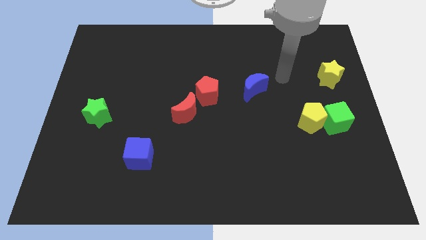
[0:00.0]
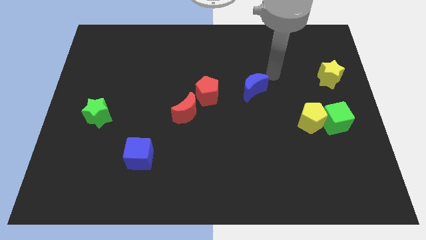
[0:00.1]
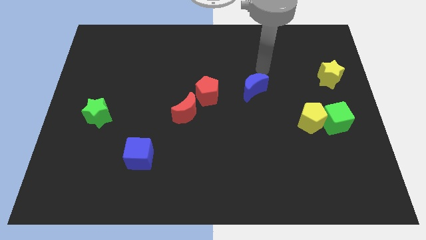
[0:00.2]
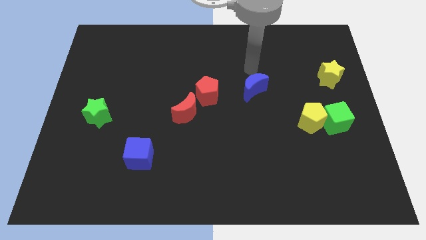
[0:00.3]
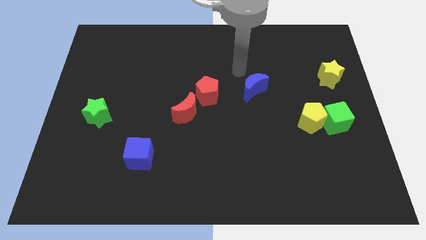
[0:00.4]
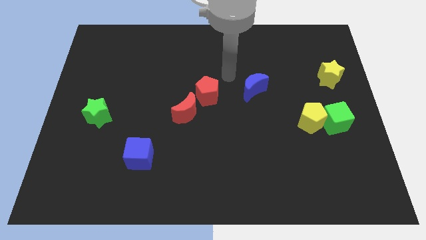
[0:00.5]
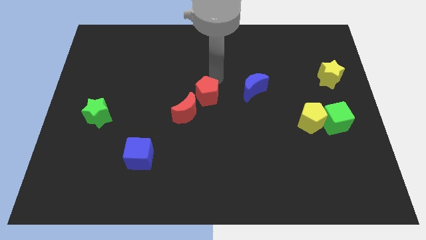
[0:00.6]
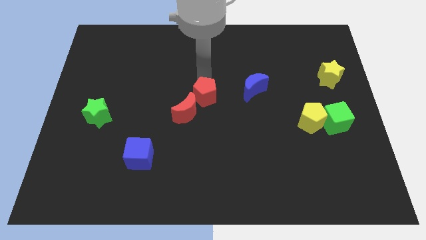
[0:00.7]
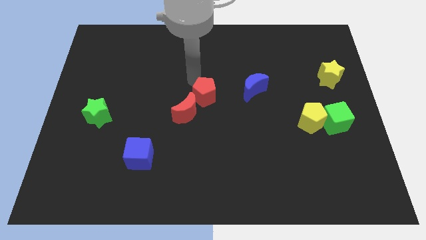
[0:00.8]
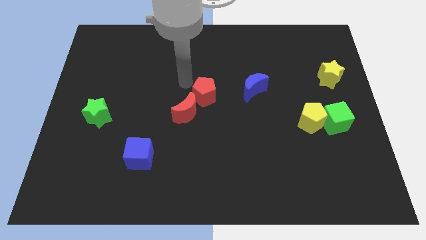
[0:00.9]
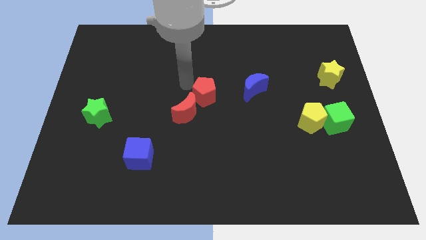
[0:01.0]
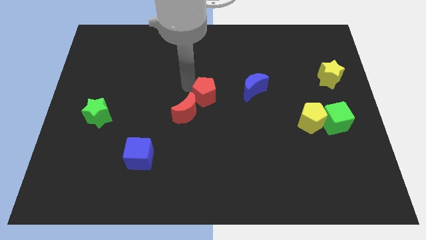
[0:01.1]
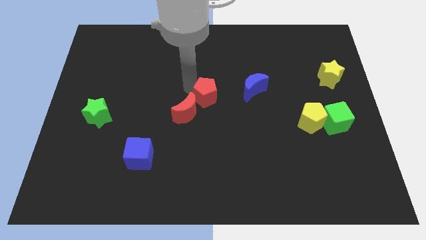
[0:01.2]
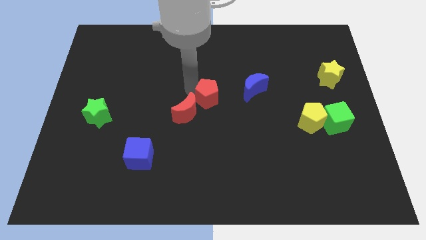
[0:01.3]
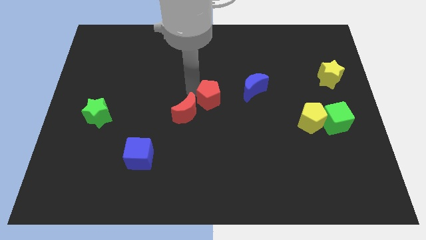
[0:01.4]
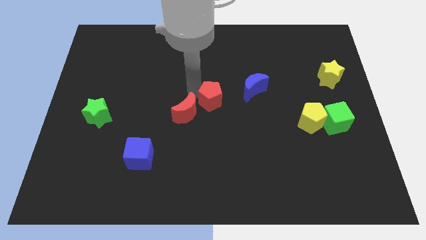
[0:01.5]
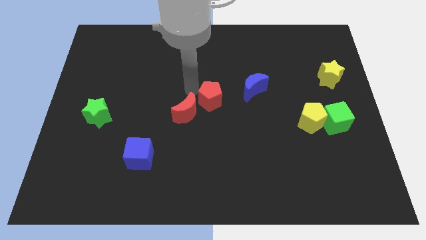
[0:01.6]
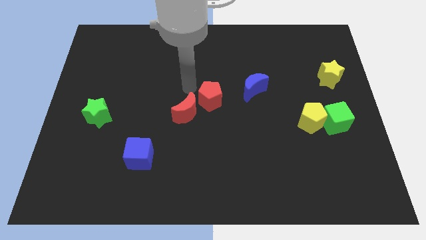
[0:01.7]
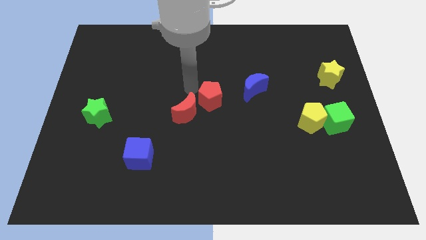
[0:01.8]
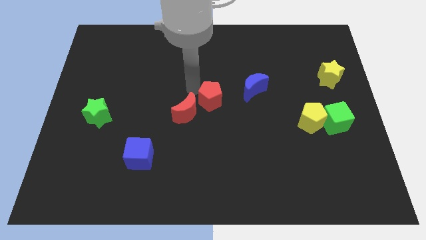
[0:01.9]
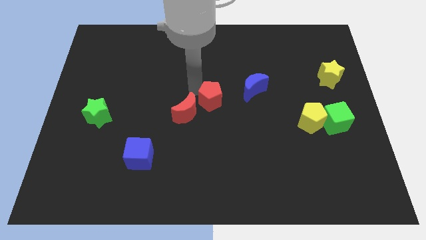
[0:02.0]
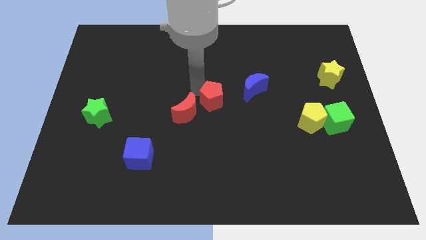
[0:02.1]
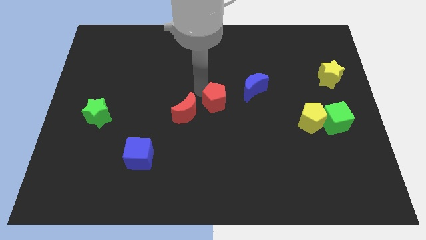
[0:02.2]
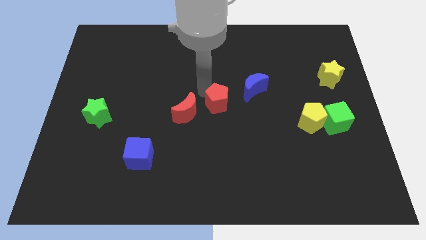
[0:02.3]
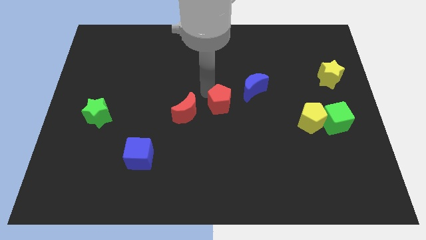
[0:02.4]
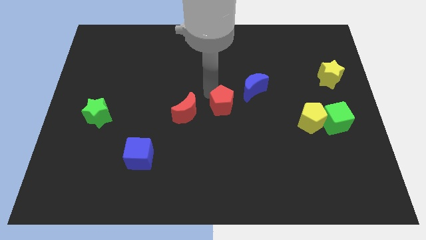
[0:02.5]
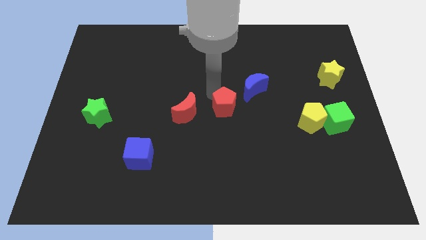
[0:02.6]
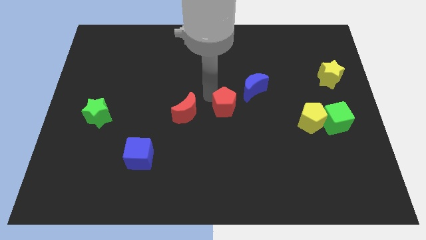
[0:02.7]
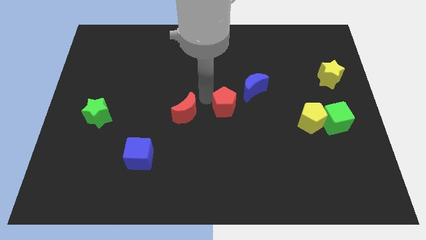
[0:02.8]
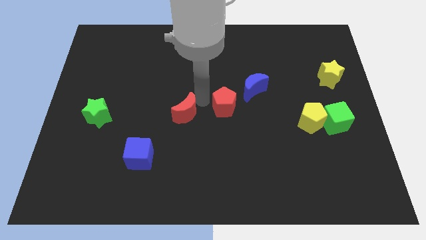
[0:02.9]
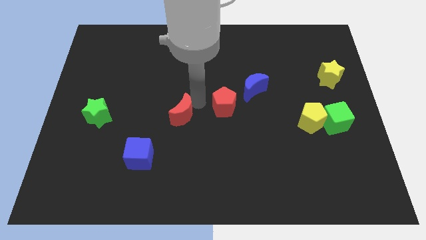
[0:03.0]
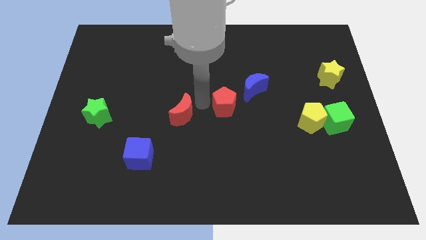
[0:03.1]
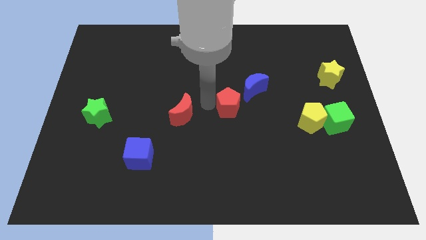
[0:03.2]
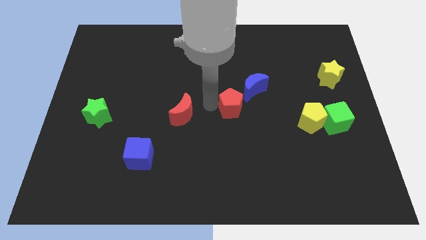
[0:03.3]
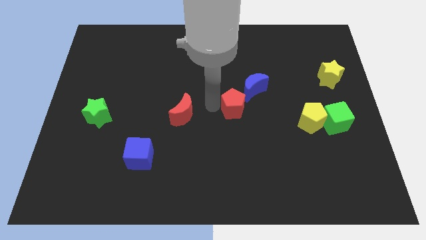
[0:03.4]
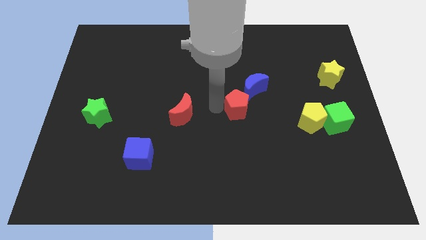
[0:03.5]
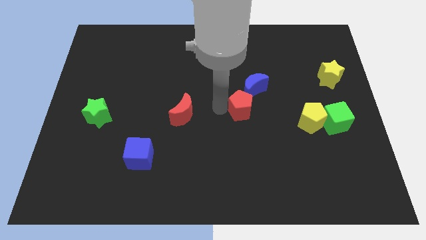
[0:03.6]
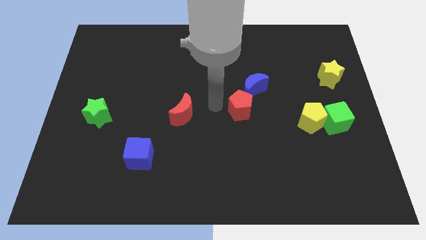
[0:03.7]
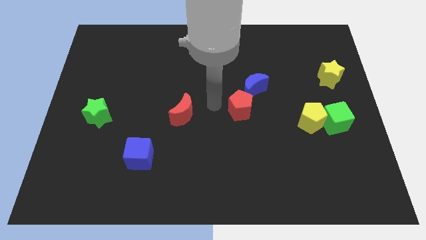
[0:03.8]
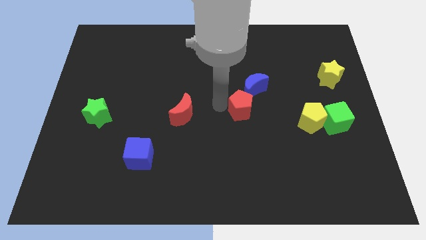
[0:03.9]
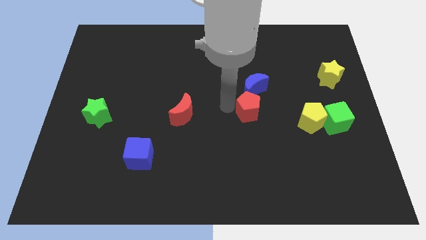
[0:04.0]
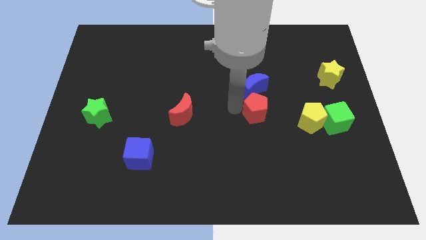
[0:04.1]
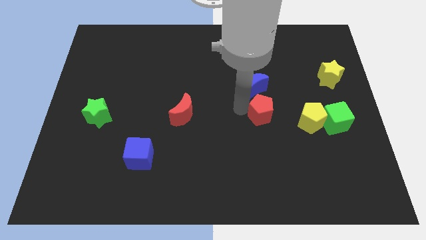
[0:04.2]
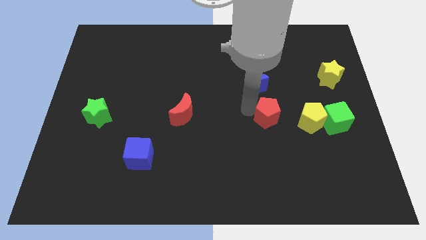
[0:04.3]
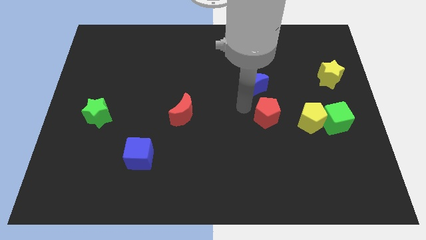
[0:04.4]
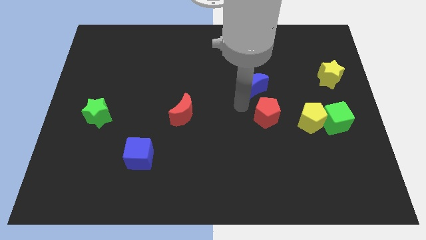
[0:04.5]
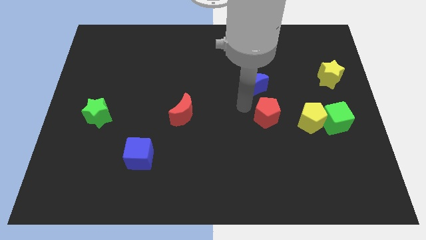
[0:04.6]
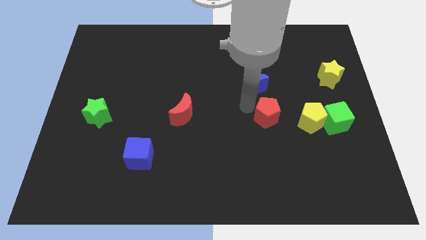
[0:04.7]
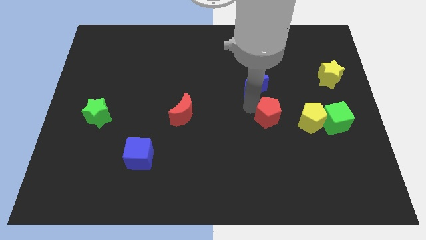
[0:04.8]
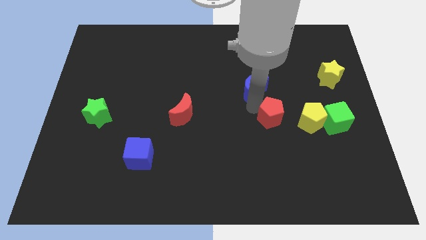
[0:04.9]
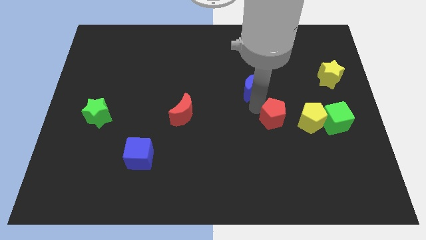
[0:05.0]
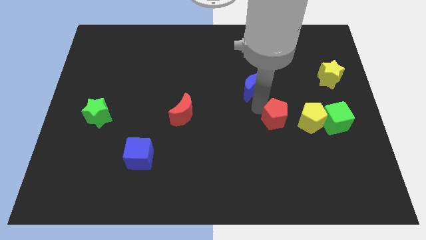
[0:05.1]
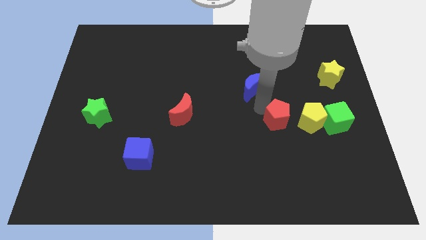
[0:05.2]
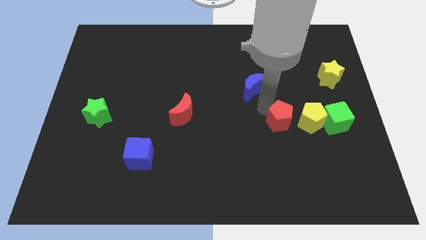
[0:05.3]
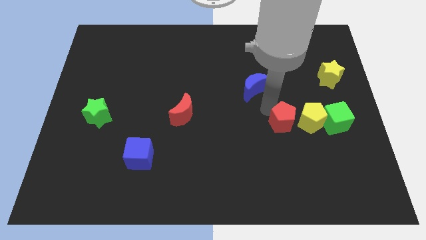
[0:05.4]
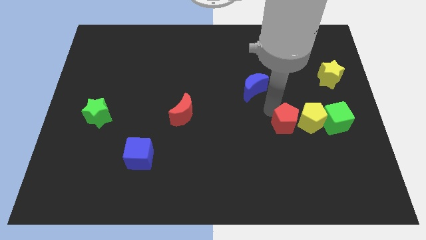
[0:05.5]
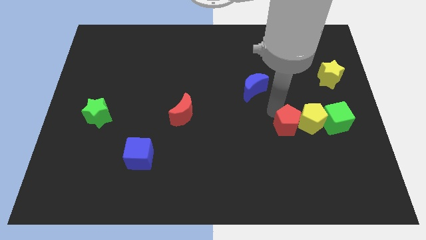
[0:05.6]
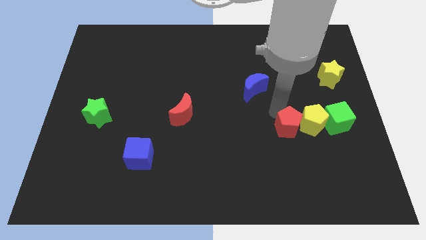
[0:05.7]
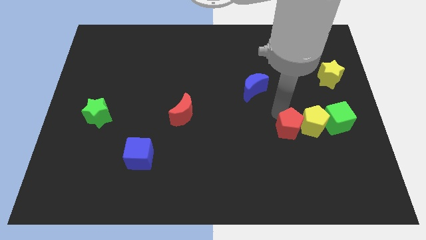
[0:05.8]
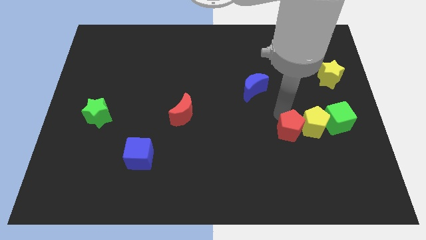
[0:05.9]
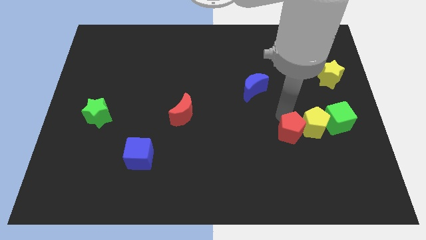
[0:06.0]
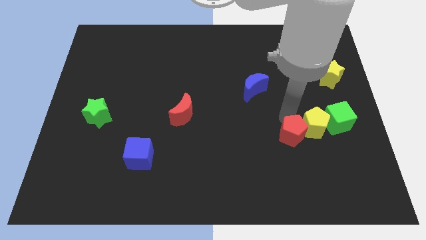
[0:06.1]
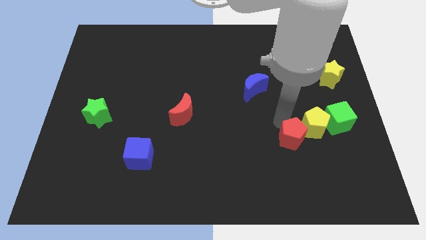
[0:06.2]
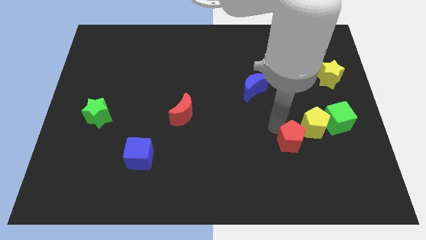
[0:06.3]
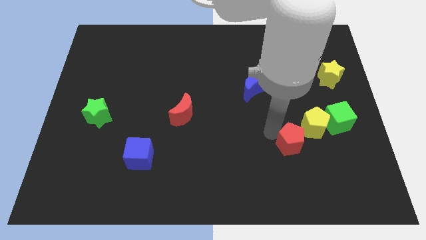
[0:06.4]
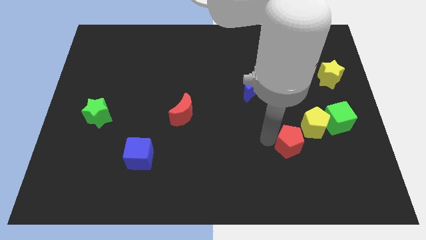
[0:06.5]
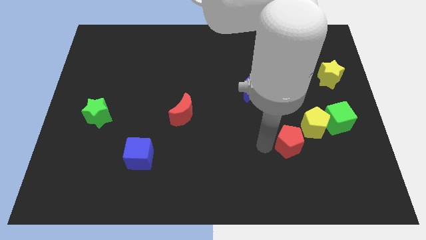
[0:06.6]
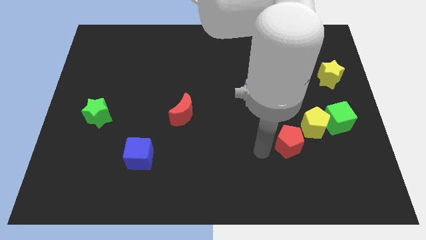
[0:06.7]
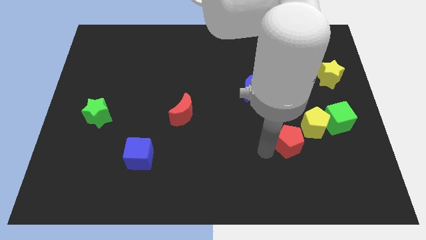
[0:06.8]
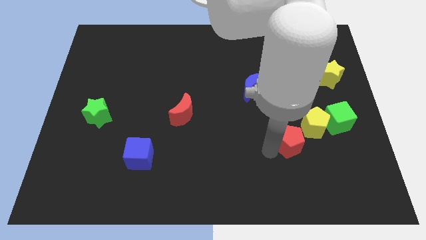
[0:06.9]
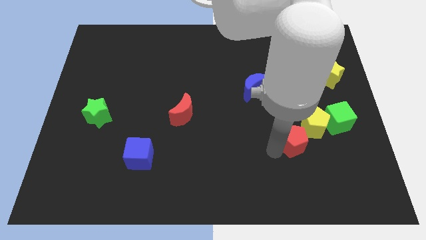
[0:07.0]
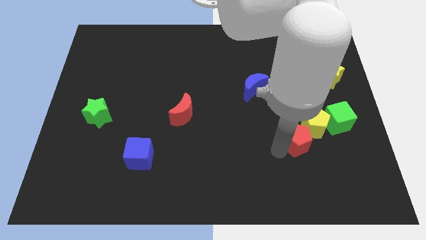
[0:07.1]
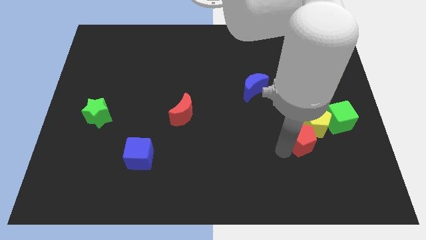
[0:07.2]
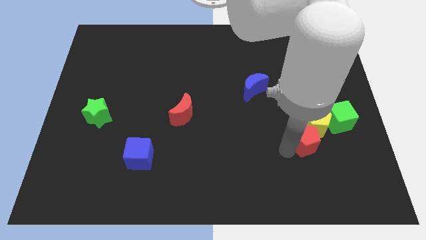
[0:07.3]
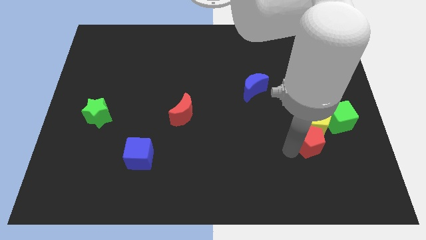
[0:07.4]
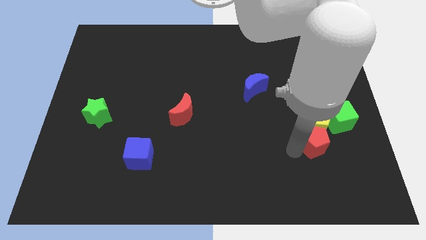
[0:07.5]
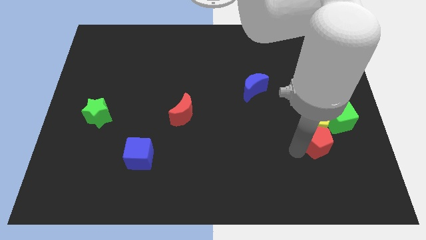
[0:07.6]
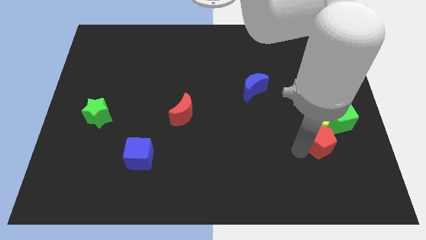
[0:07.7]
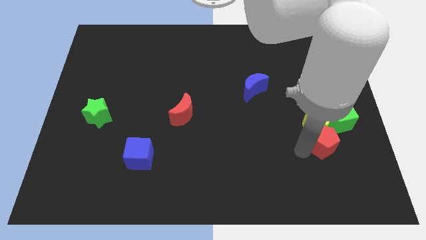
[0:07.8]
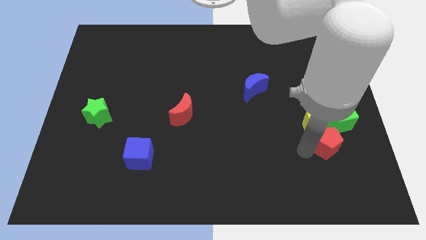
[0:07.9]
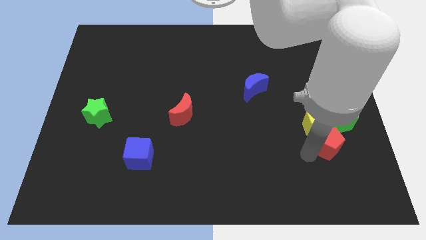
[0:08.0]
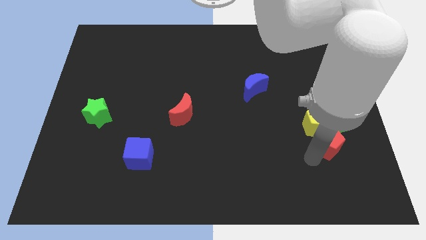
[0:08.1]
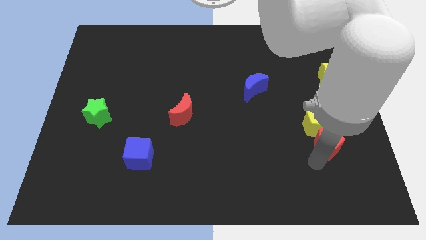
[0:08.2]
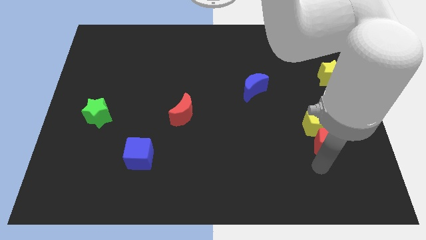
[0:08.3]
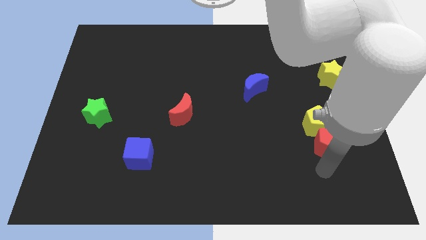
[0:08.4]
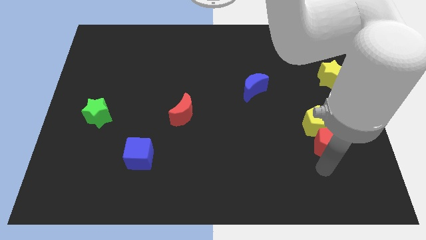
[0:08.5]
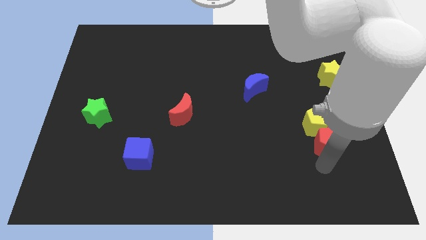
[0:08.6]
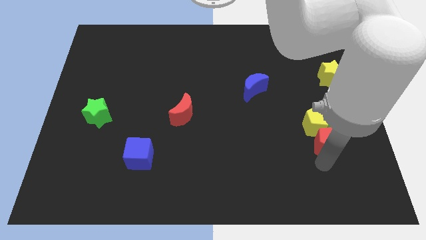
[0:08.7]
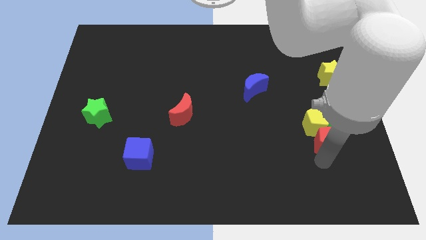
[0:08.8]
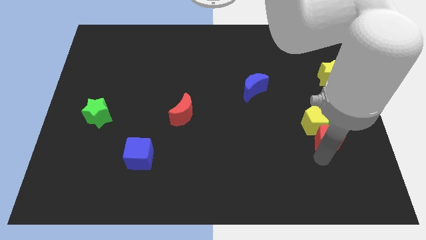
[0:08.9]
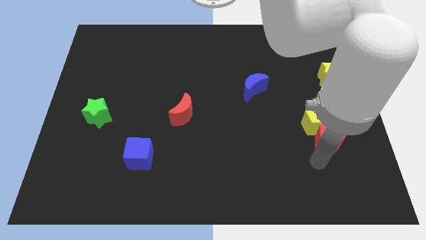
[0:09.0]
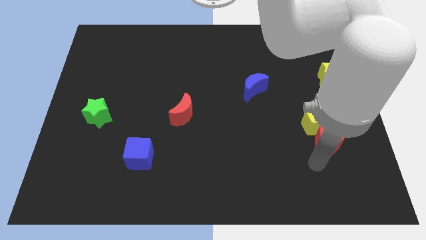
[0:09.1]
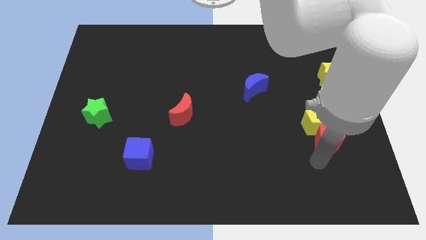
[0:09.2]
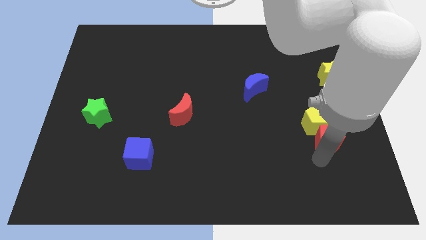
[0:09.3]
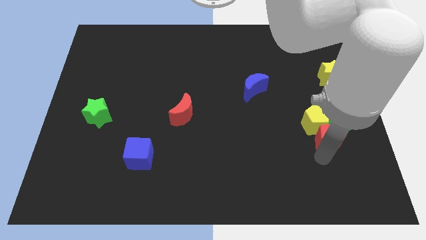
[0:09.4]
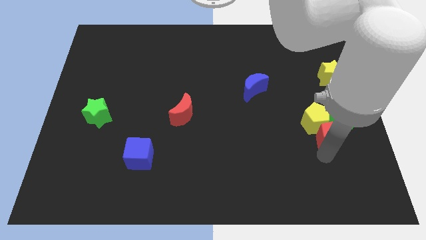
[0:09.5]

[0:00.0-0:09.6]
push the red pentagon next to the green cube
